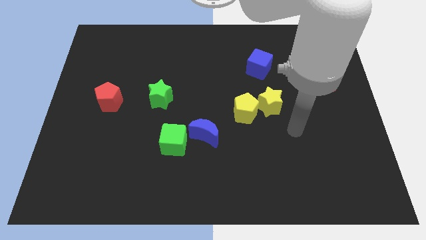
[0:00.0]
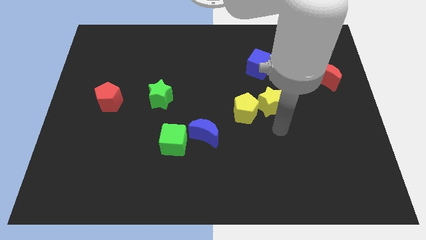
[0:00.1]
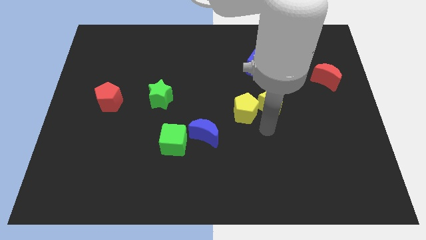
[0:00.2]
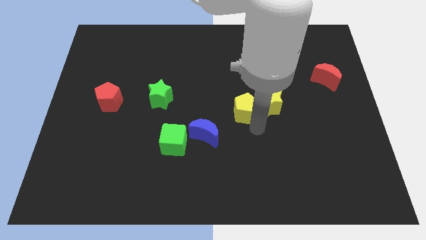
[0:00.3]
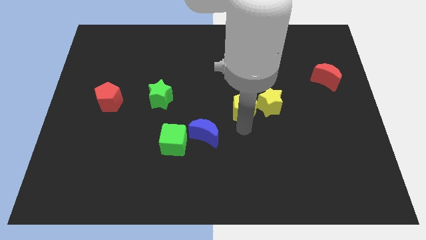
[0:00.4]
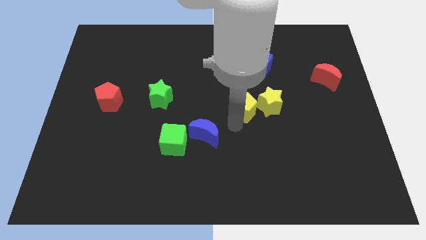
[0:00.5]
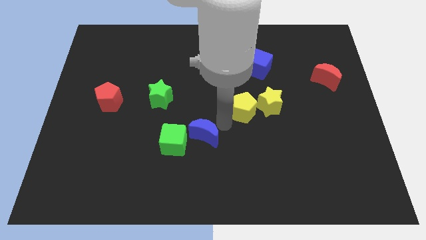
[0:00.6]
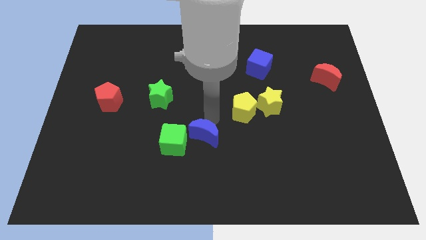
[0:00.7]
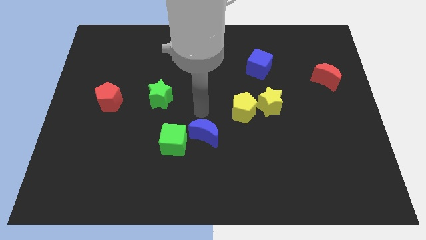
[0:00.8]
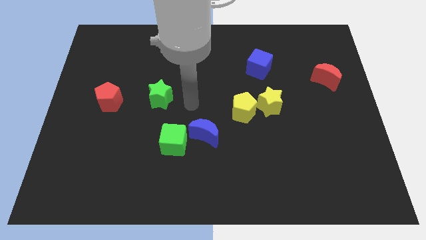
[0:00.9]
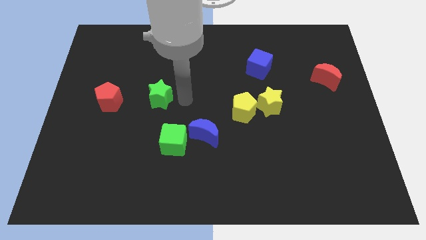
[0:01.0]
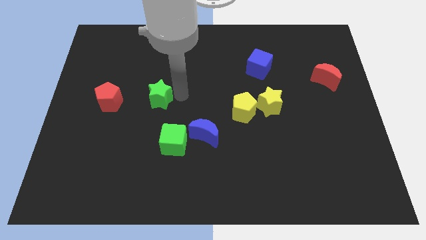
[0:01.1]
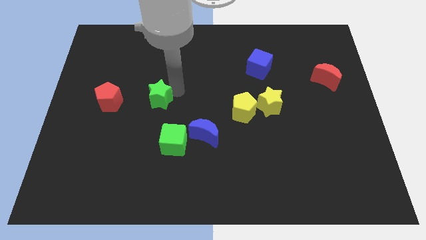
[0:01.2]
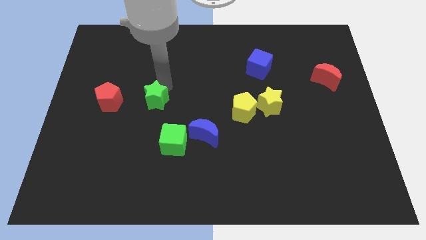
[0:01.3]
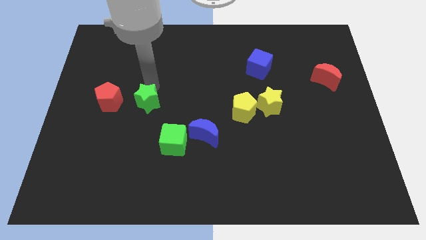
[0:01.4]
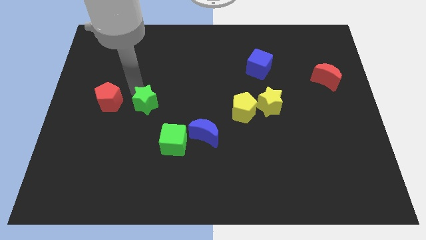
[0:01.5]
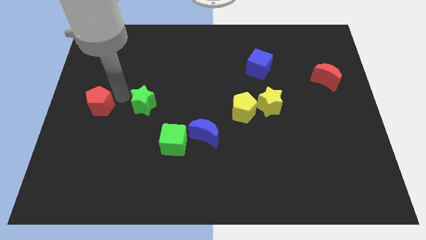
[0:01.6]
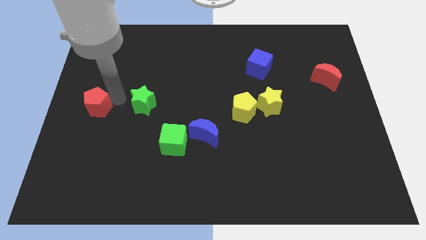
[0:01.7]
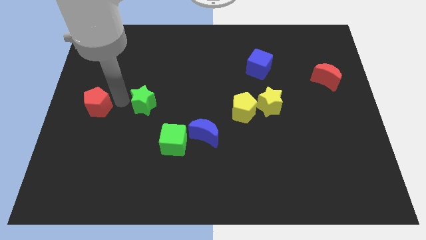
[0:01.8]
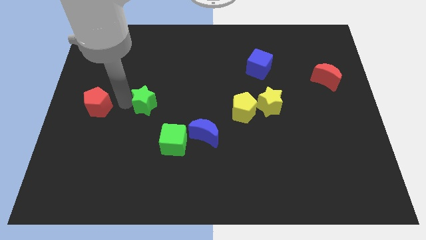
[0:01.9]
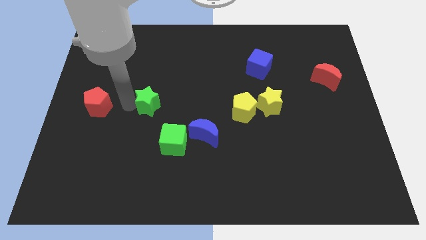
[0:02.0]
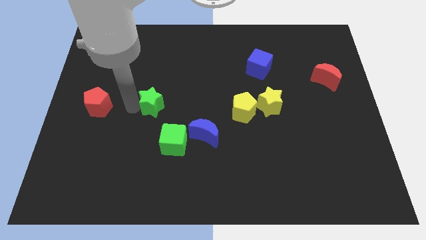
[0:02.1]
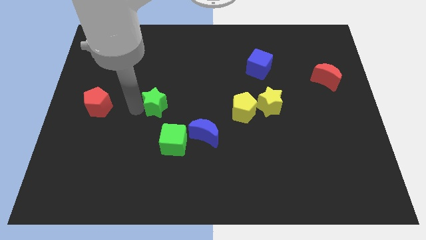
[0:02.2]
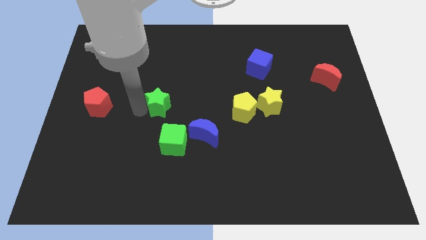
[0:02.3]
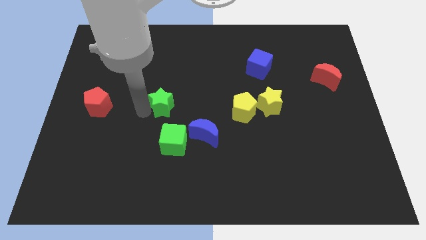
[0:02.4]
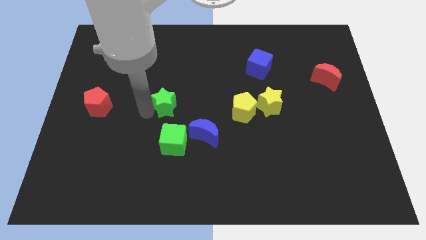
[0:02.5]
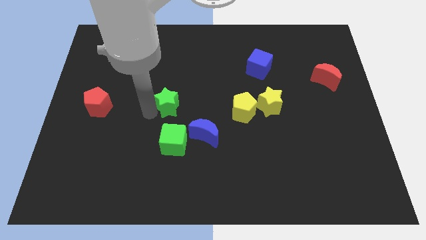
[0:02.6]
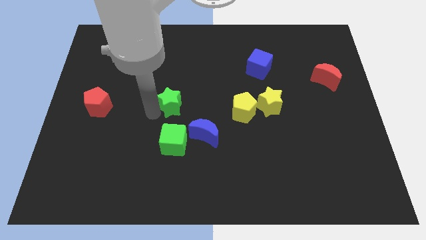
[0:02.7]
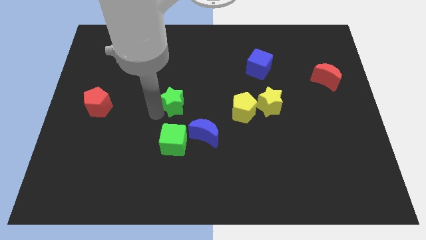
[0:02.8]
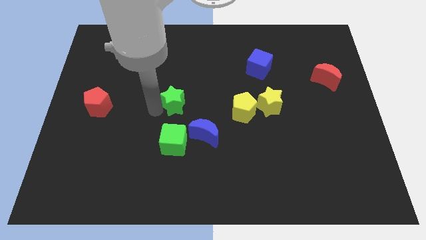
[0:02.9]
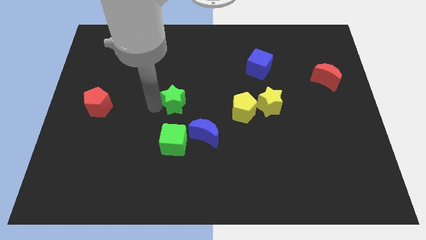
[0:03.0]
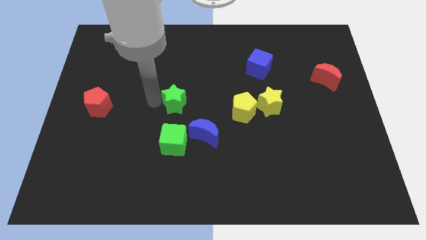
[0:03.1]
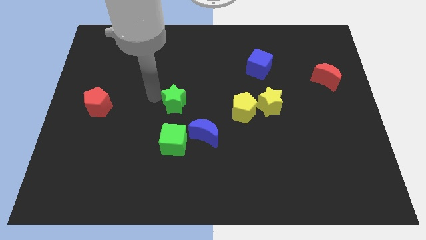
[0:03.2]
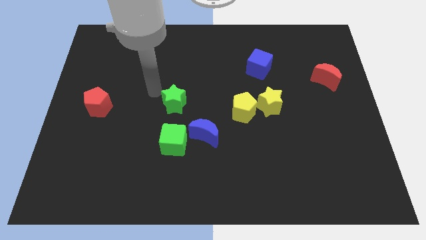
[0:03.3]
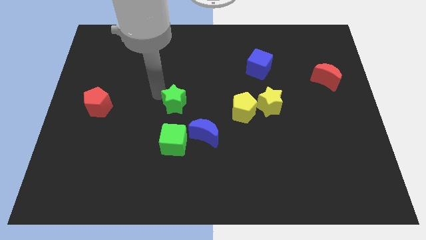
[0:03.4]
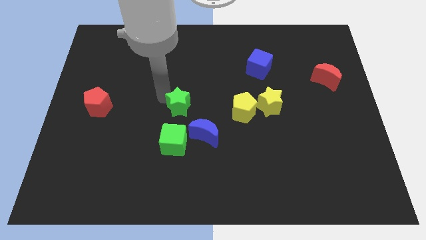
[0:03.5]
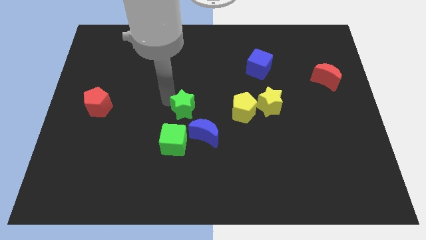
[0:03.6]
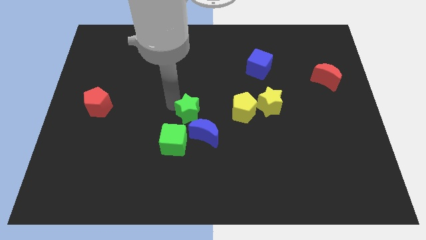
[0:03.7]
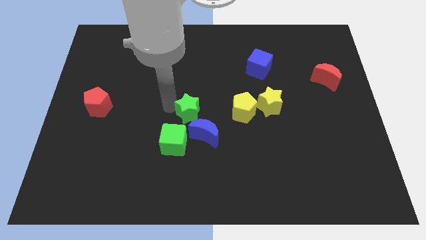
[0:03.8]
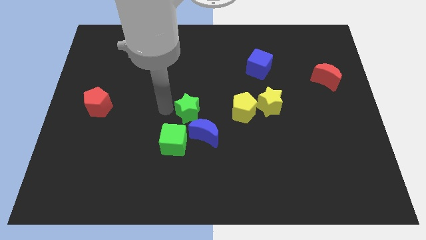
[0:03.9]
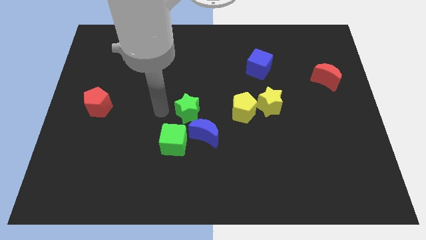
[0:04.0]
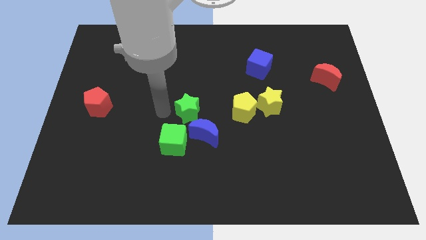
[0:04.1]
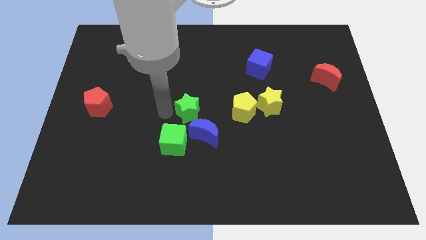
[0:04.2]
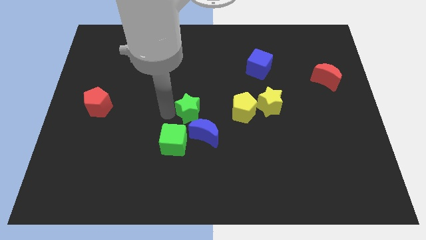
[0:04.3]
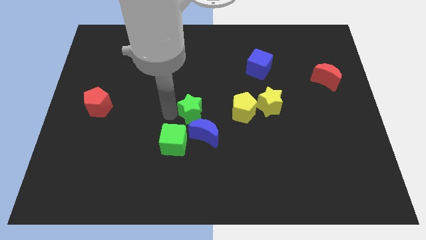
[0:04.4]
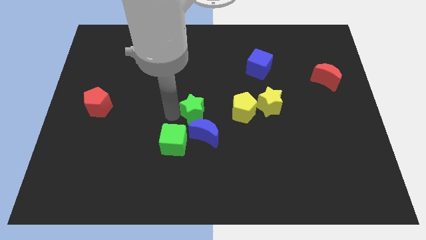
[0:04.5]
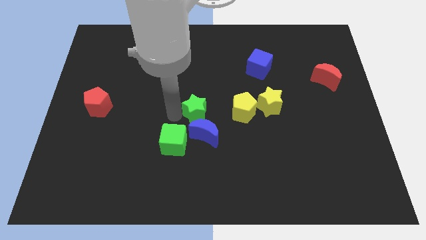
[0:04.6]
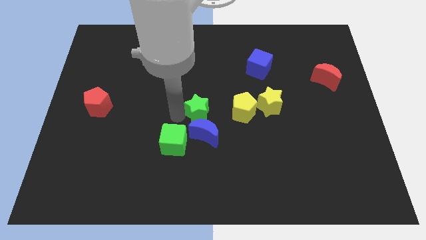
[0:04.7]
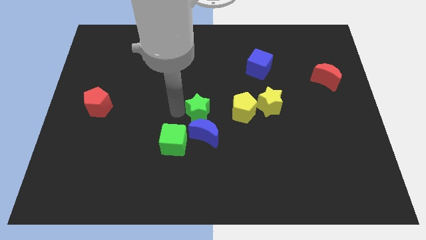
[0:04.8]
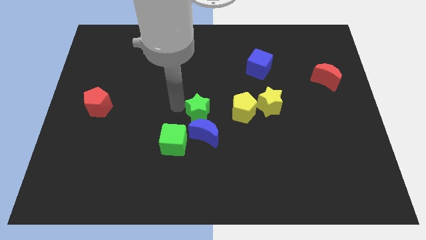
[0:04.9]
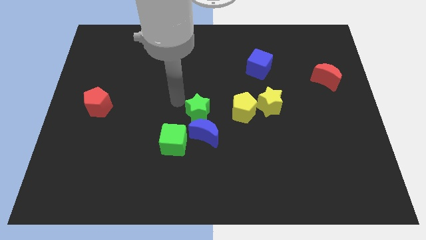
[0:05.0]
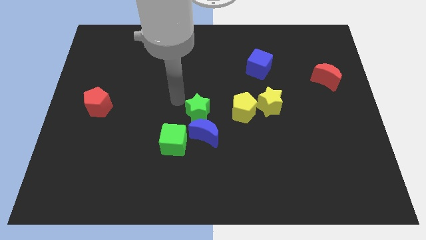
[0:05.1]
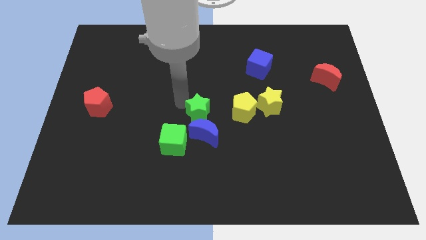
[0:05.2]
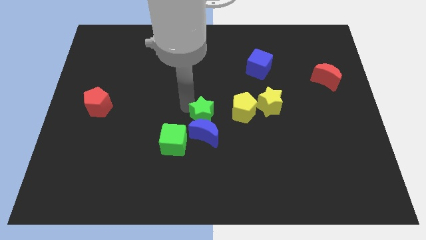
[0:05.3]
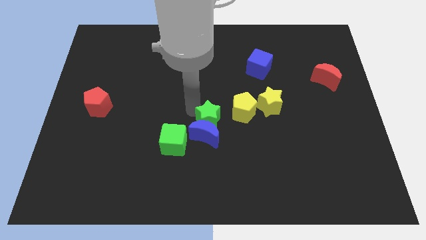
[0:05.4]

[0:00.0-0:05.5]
push the green star diagonally down and to the left of the yellow pentagon

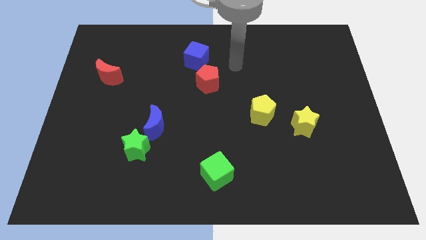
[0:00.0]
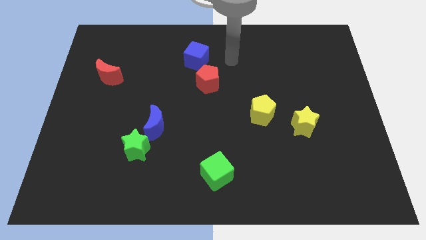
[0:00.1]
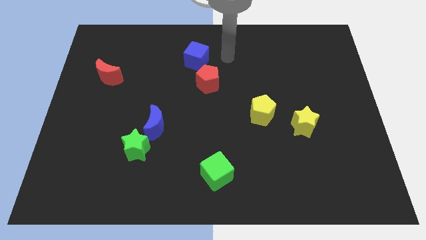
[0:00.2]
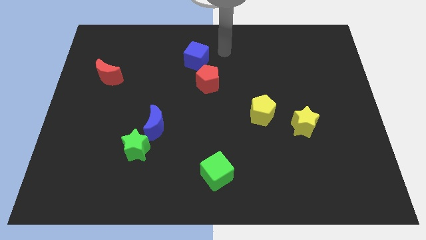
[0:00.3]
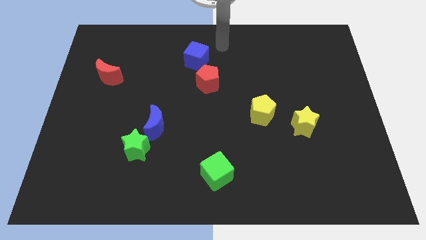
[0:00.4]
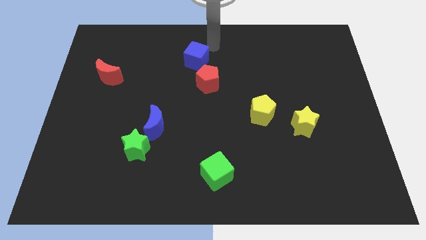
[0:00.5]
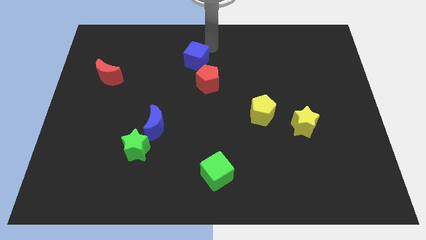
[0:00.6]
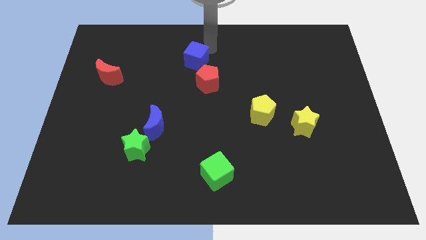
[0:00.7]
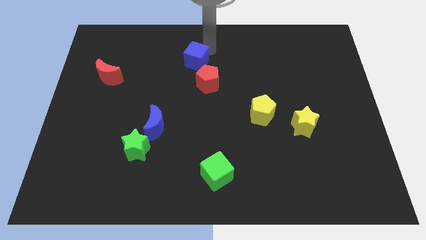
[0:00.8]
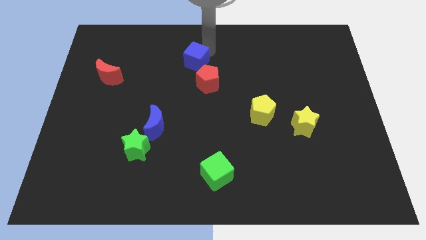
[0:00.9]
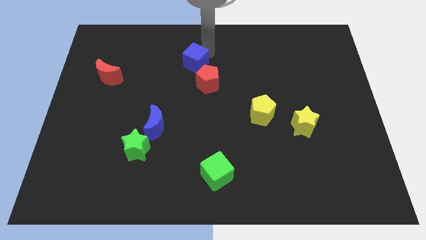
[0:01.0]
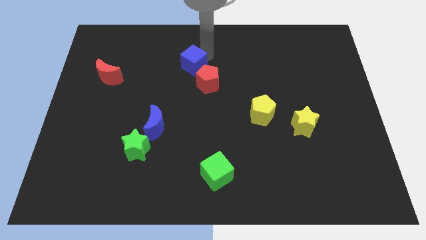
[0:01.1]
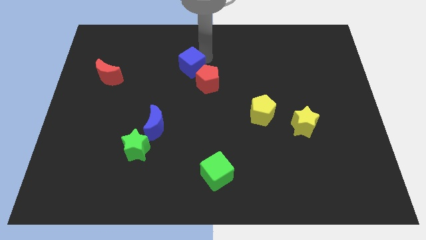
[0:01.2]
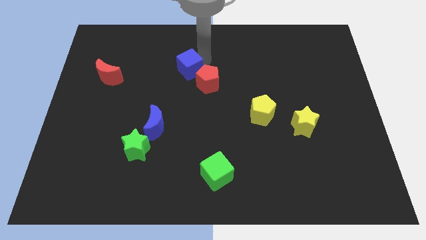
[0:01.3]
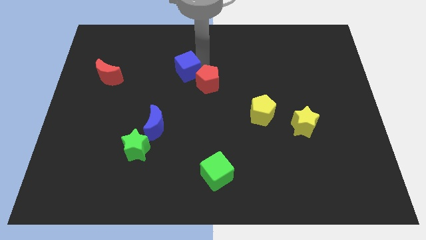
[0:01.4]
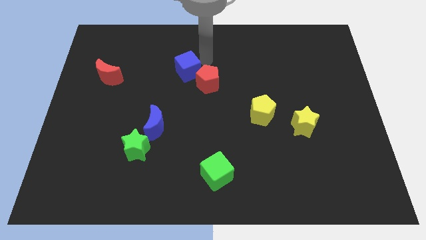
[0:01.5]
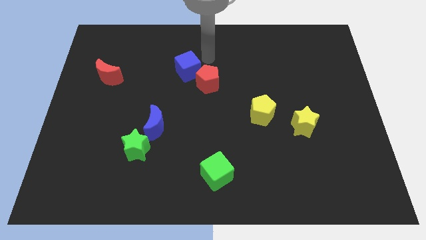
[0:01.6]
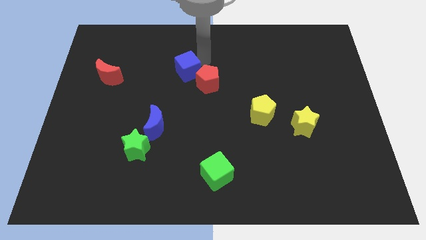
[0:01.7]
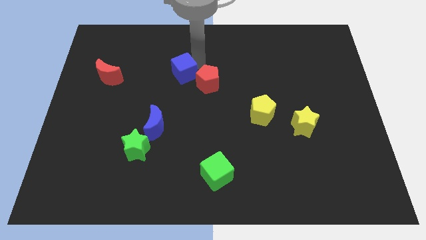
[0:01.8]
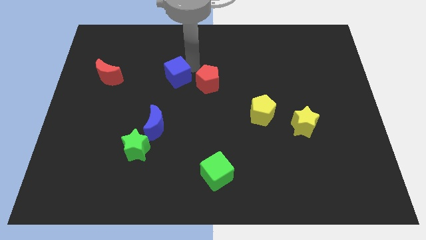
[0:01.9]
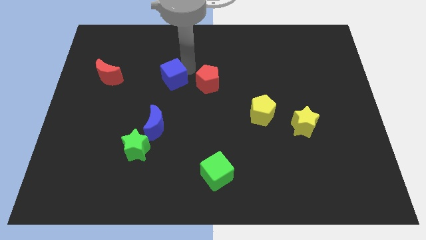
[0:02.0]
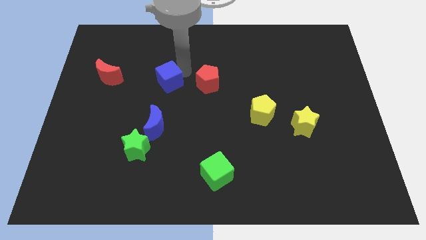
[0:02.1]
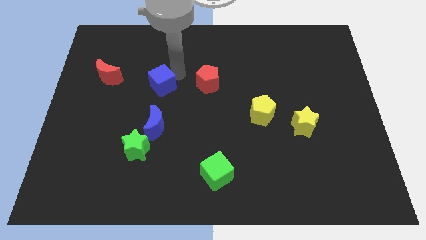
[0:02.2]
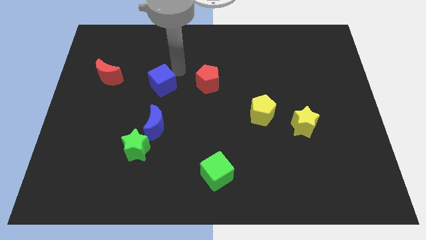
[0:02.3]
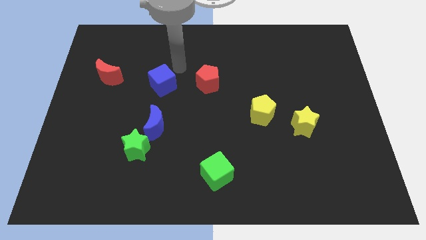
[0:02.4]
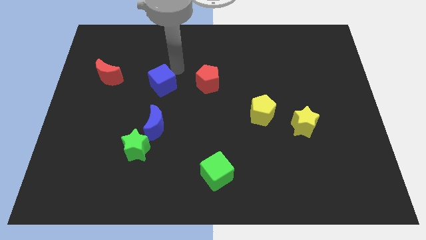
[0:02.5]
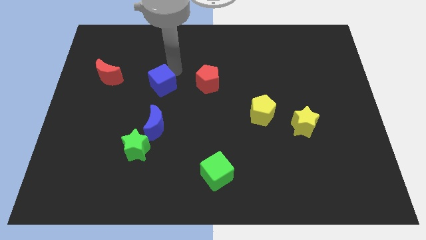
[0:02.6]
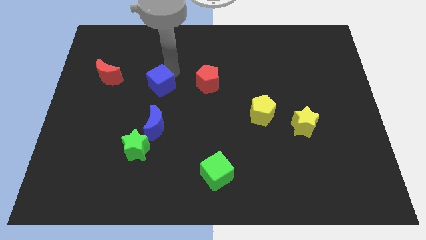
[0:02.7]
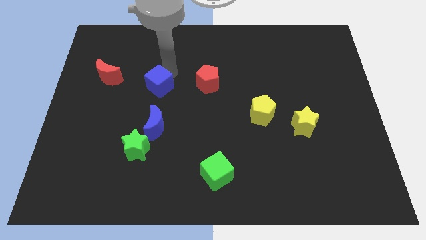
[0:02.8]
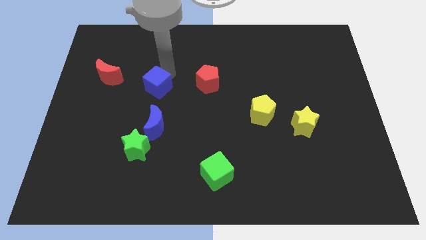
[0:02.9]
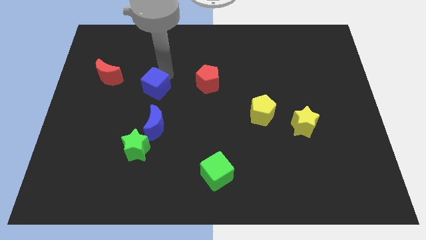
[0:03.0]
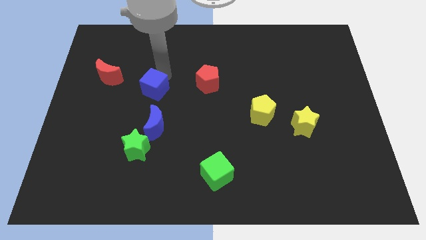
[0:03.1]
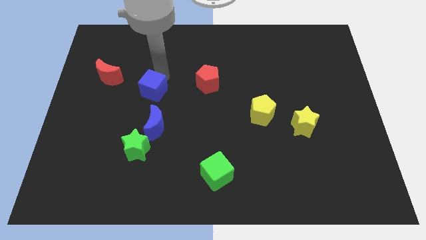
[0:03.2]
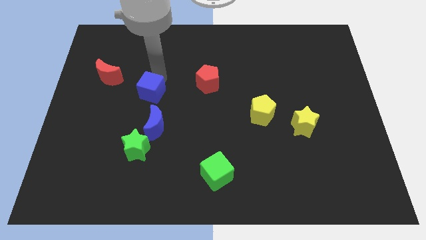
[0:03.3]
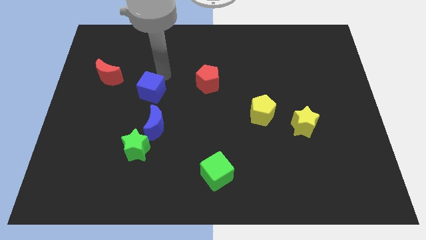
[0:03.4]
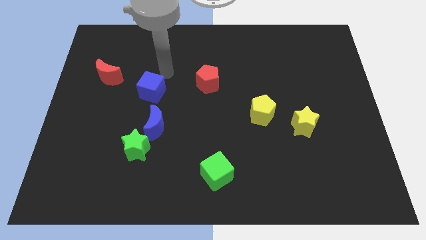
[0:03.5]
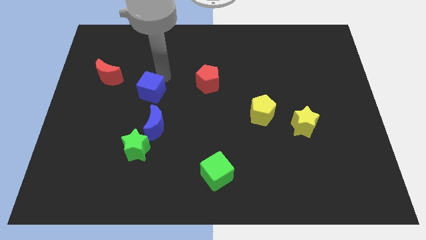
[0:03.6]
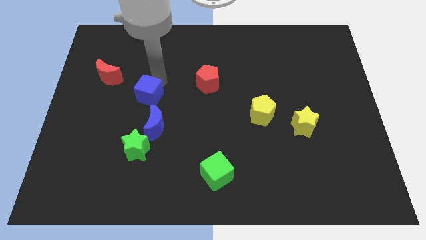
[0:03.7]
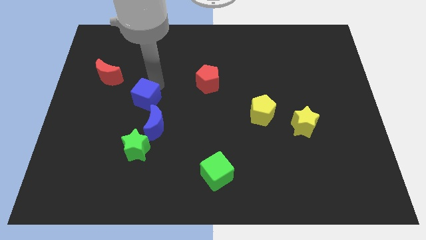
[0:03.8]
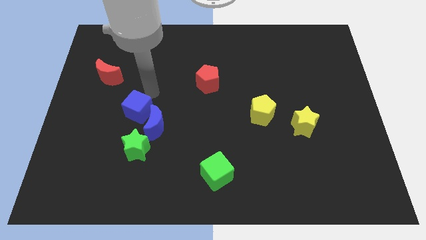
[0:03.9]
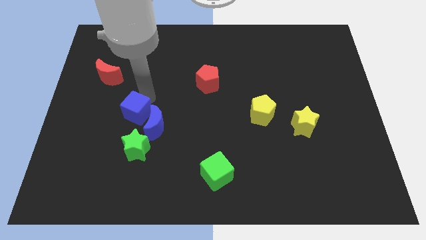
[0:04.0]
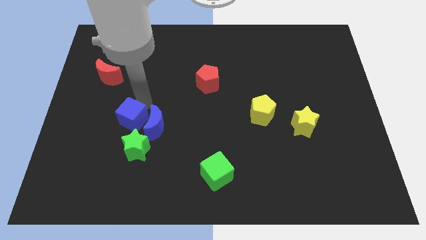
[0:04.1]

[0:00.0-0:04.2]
move the blue cube to the top left side of the green star
